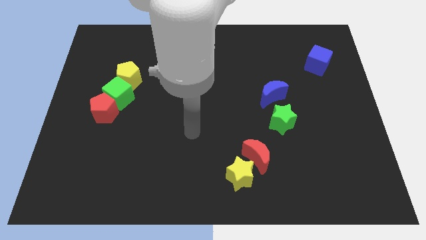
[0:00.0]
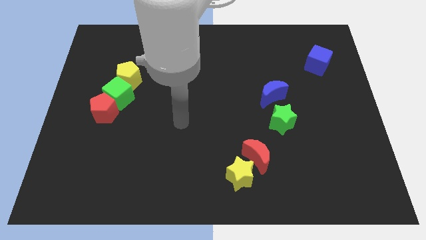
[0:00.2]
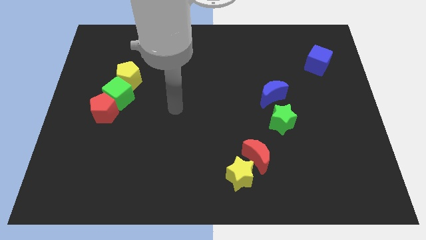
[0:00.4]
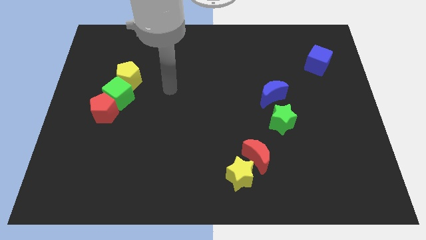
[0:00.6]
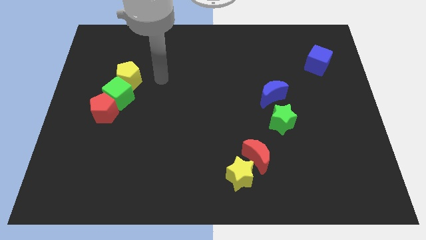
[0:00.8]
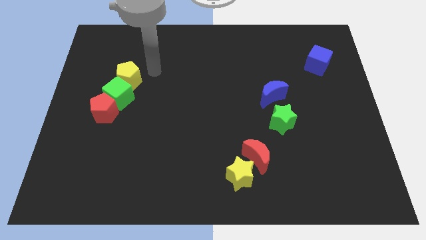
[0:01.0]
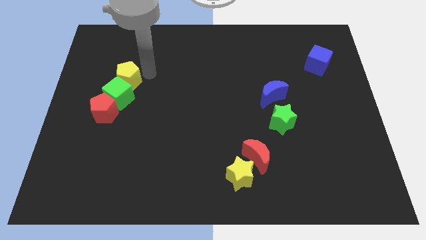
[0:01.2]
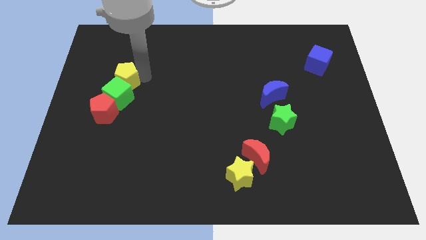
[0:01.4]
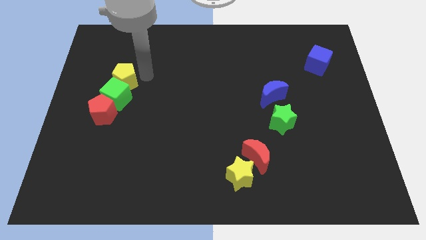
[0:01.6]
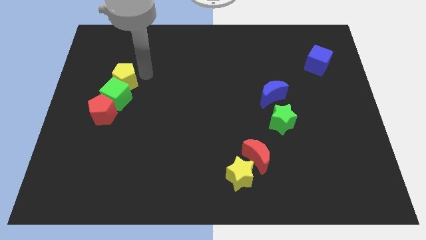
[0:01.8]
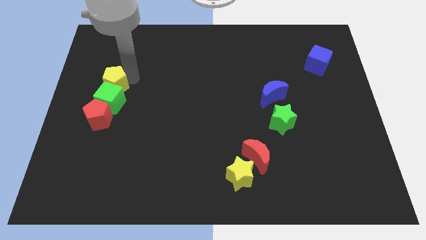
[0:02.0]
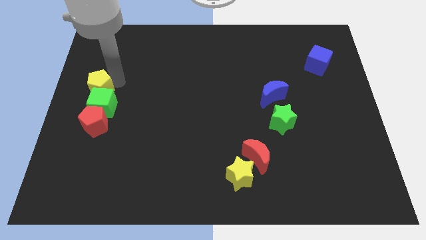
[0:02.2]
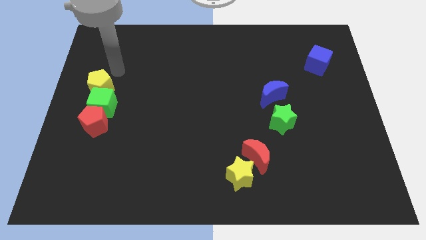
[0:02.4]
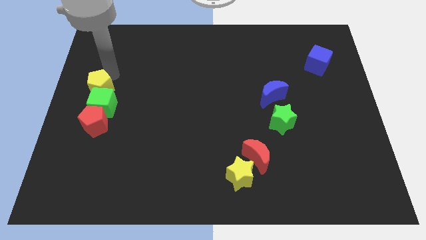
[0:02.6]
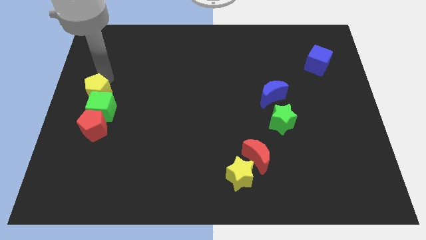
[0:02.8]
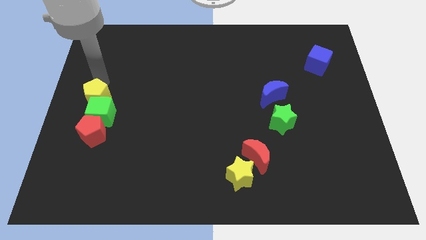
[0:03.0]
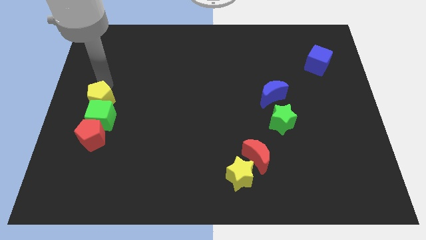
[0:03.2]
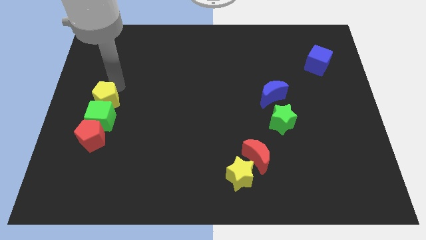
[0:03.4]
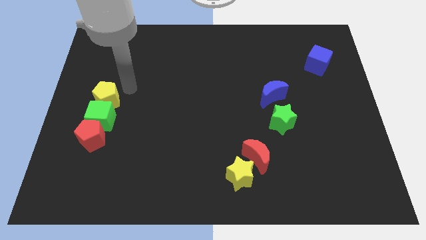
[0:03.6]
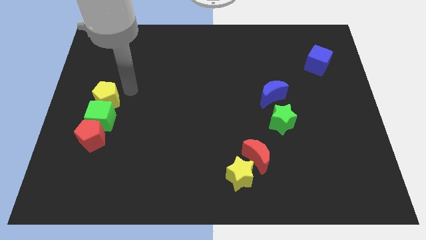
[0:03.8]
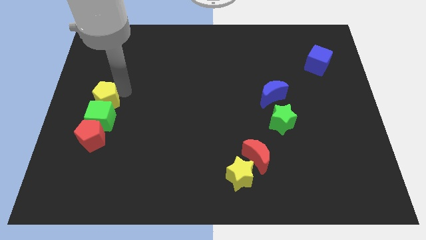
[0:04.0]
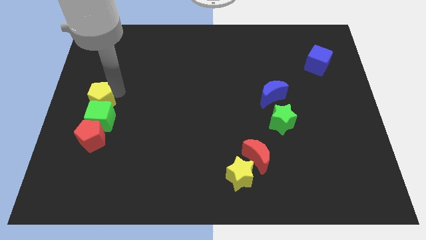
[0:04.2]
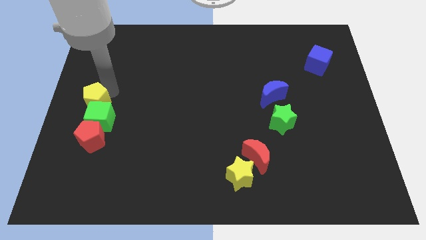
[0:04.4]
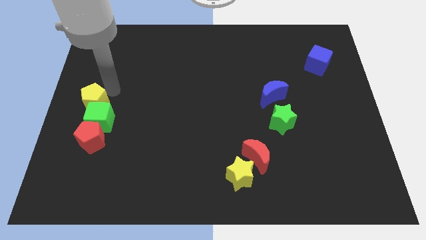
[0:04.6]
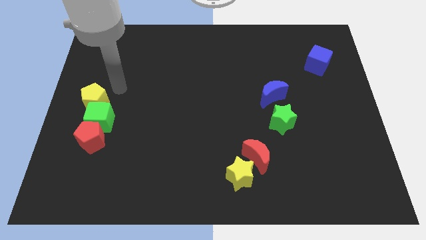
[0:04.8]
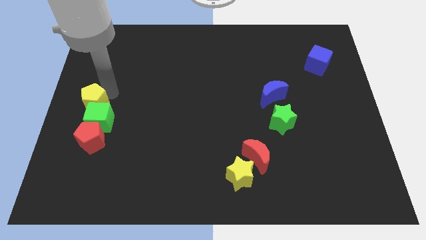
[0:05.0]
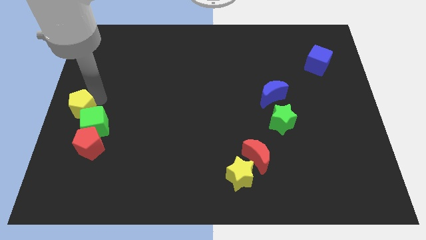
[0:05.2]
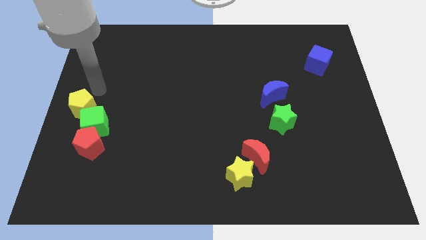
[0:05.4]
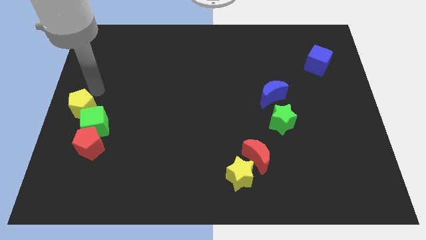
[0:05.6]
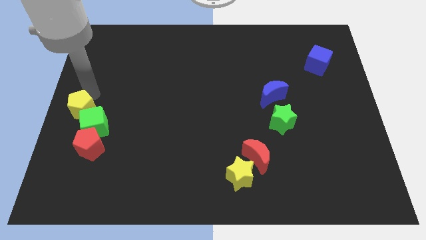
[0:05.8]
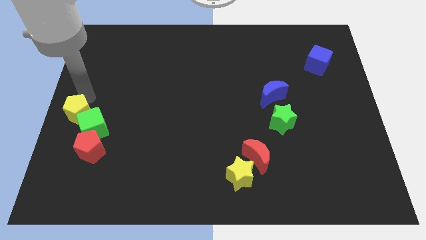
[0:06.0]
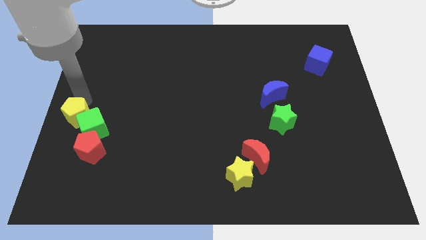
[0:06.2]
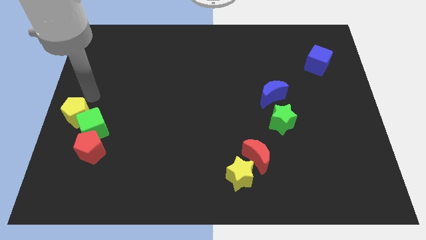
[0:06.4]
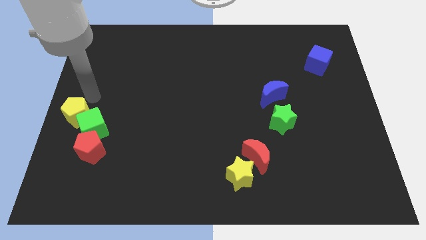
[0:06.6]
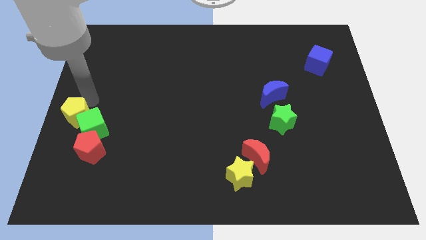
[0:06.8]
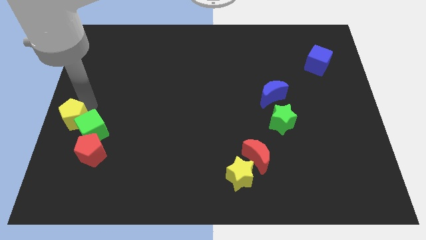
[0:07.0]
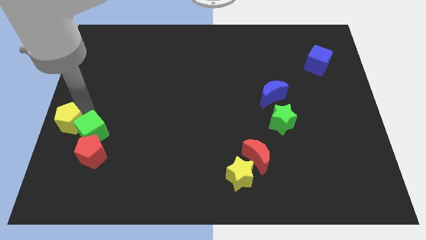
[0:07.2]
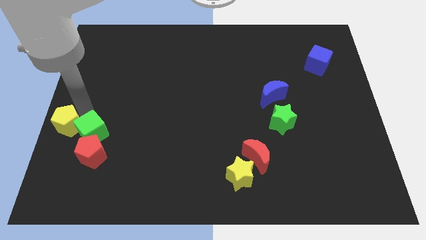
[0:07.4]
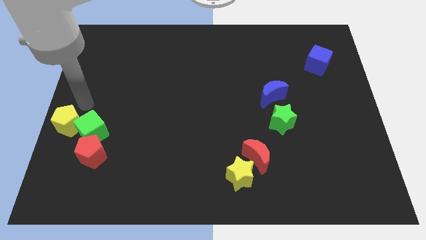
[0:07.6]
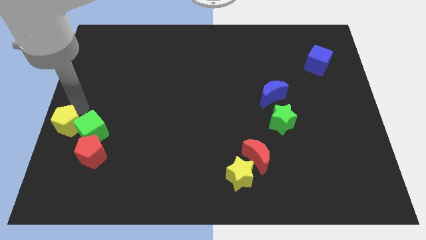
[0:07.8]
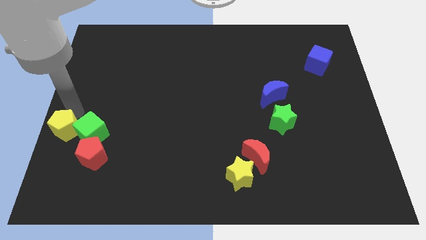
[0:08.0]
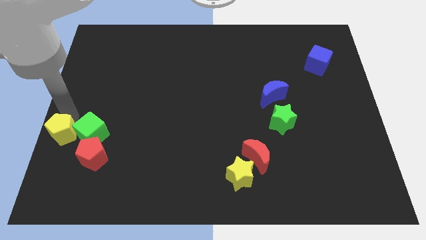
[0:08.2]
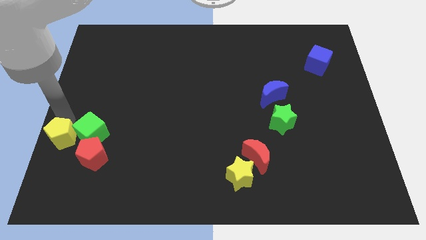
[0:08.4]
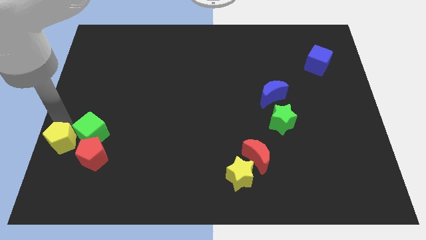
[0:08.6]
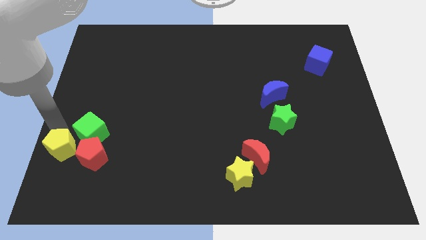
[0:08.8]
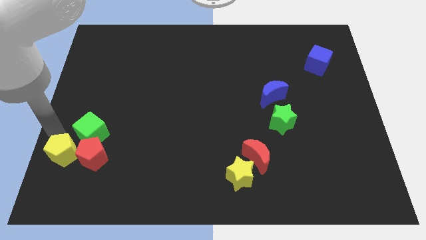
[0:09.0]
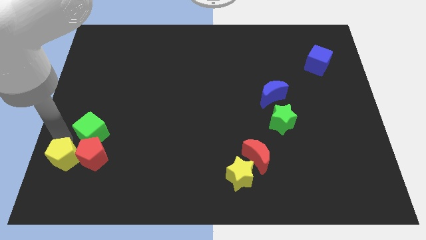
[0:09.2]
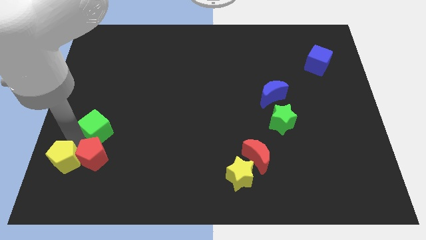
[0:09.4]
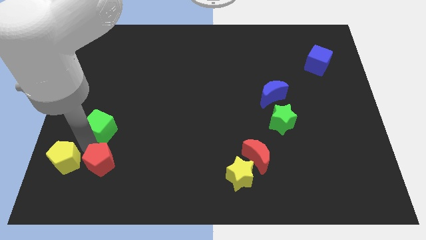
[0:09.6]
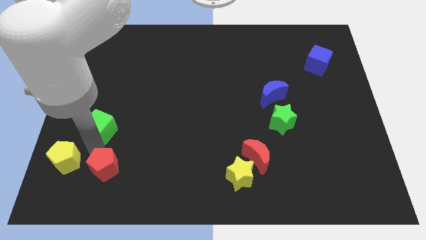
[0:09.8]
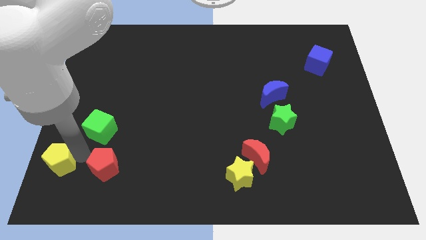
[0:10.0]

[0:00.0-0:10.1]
slide the yellow pentagon to the bottom left corner

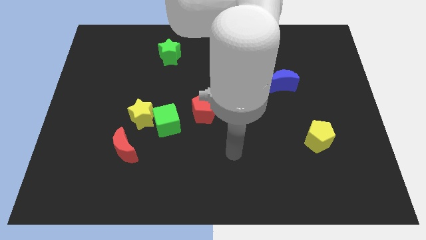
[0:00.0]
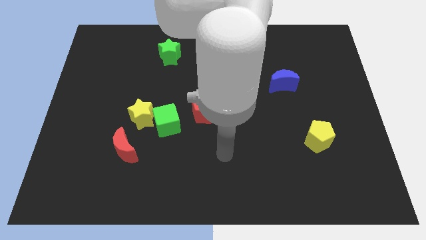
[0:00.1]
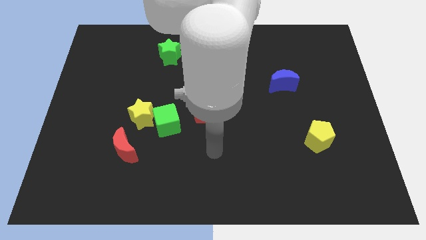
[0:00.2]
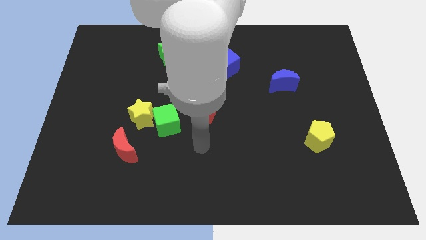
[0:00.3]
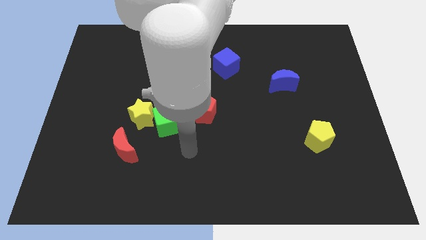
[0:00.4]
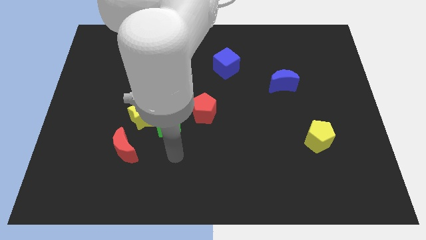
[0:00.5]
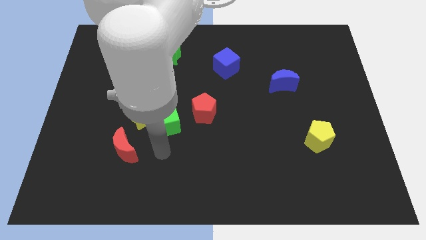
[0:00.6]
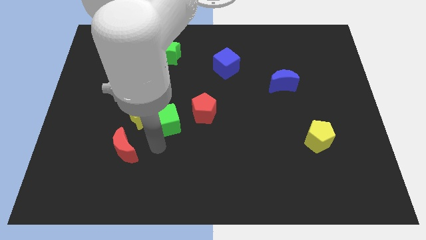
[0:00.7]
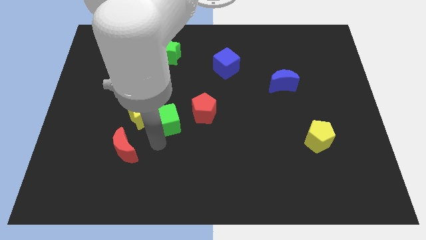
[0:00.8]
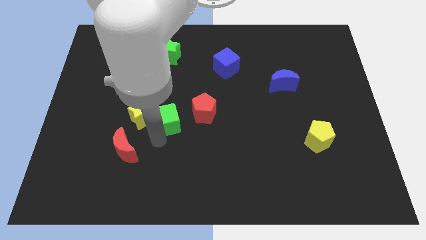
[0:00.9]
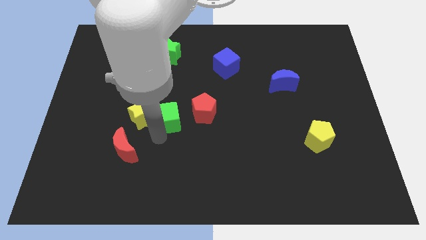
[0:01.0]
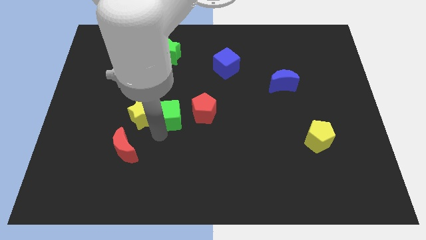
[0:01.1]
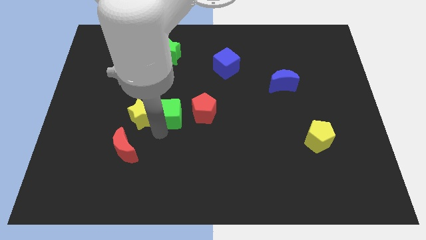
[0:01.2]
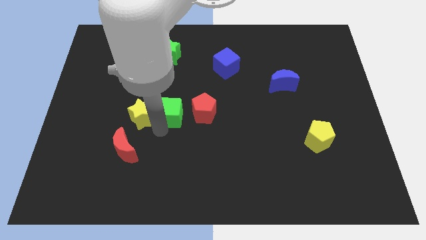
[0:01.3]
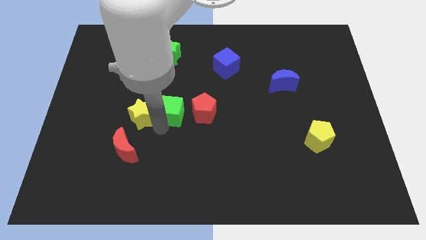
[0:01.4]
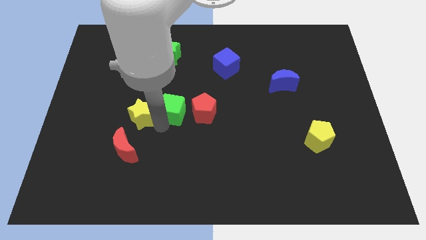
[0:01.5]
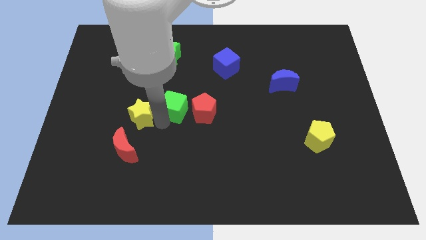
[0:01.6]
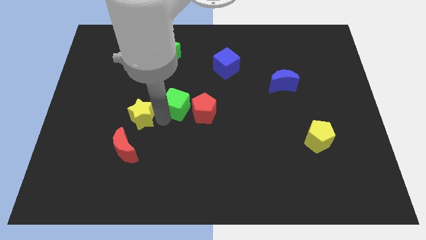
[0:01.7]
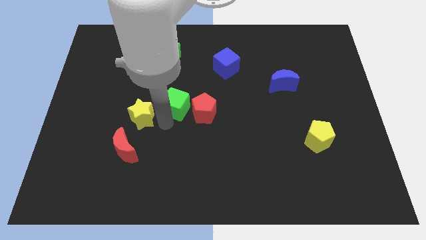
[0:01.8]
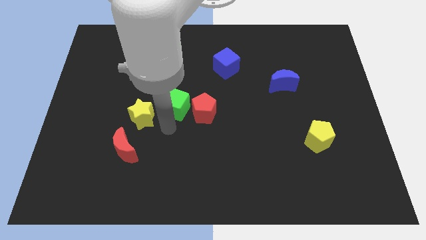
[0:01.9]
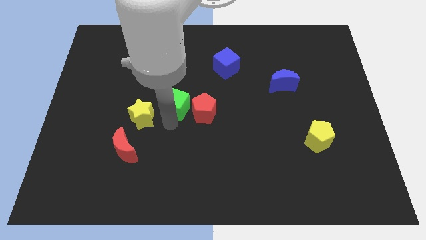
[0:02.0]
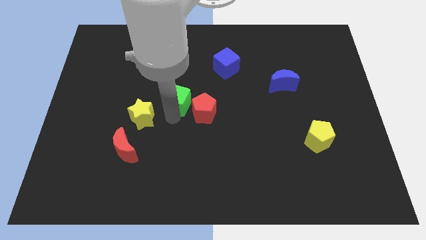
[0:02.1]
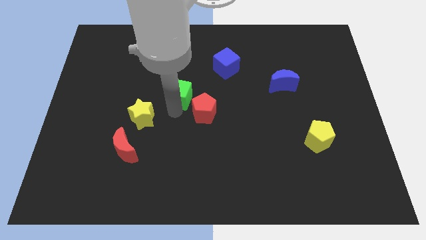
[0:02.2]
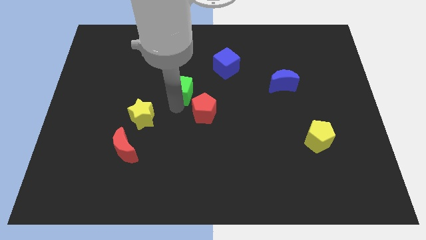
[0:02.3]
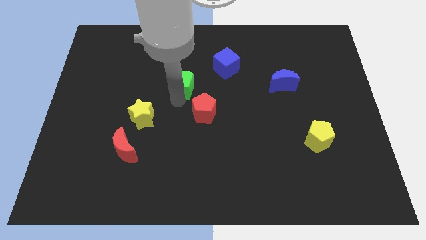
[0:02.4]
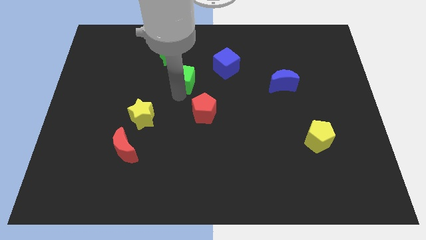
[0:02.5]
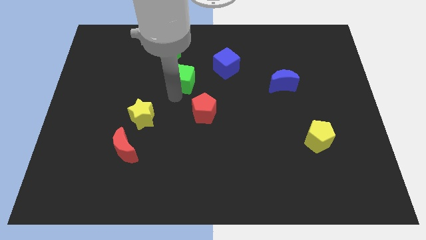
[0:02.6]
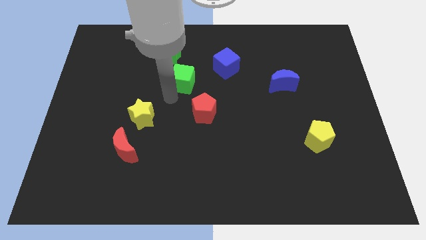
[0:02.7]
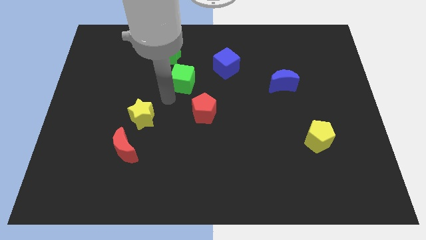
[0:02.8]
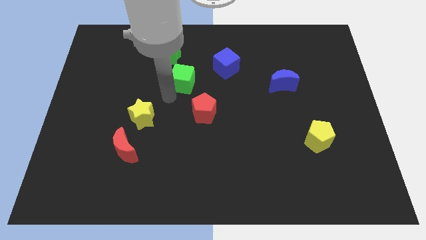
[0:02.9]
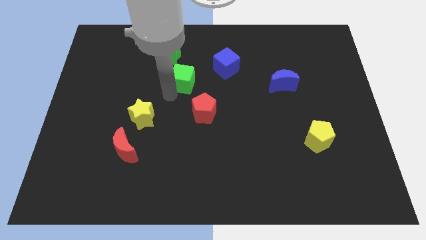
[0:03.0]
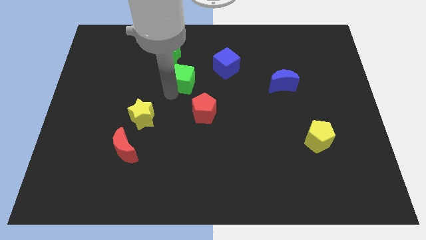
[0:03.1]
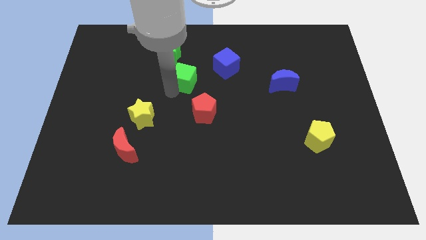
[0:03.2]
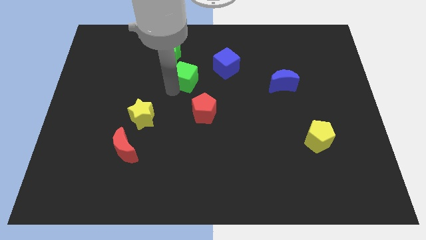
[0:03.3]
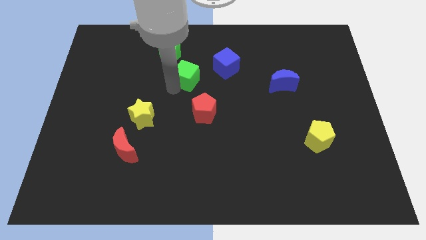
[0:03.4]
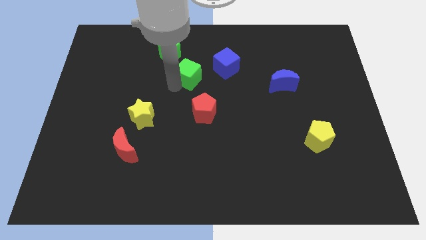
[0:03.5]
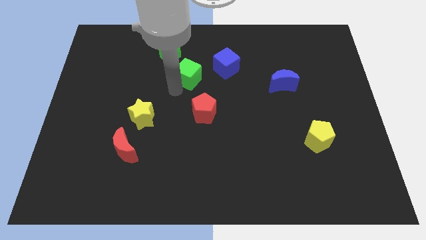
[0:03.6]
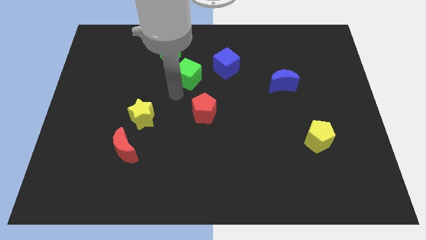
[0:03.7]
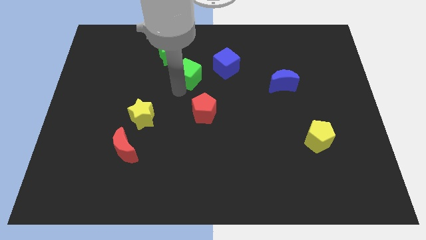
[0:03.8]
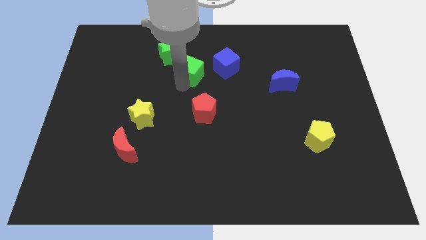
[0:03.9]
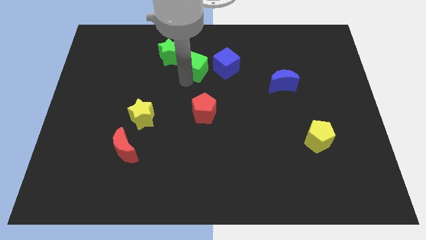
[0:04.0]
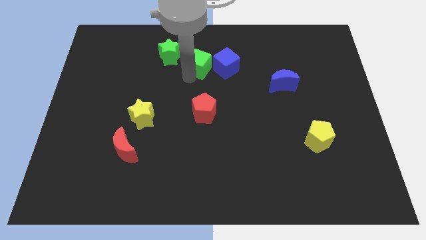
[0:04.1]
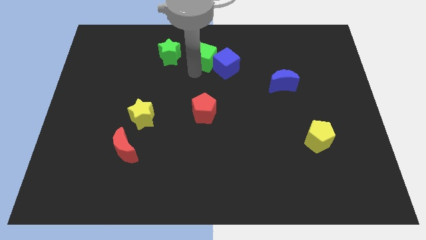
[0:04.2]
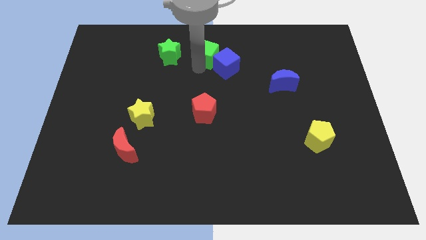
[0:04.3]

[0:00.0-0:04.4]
put the green cube to the top
